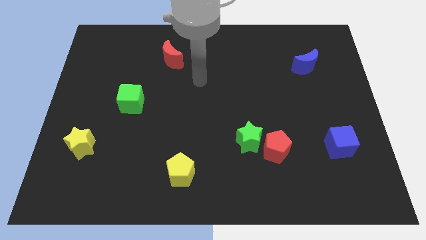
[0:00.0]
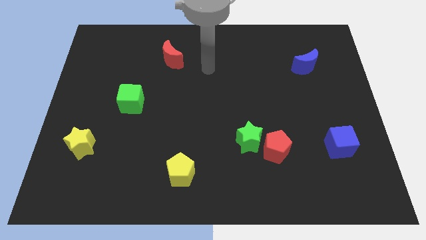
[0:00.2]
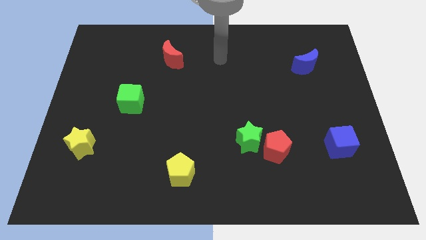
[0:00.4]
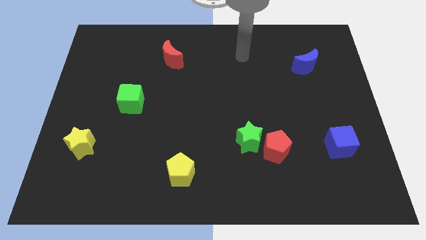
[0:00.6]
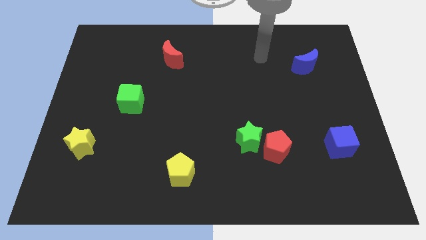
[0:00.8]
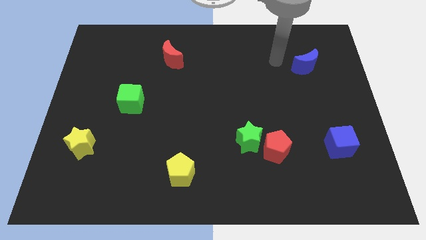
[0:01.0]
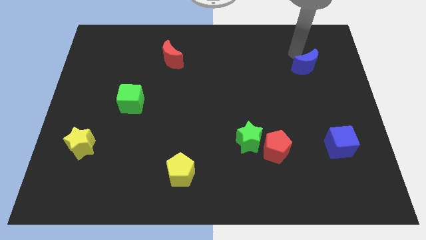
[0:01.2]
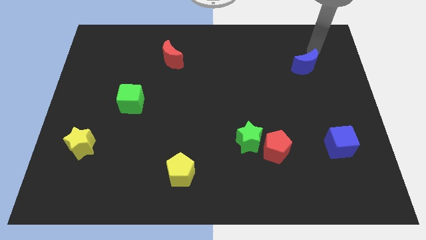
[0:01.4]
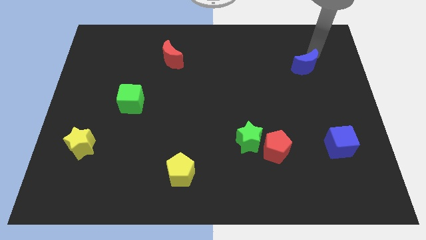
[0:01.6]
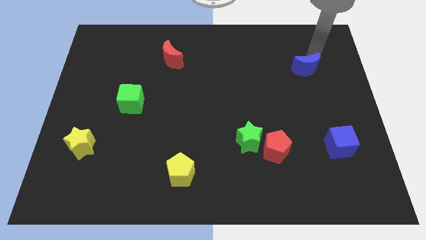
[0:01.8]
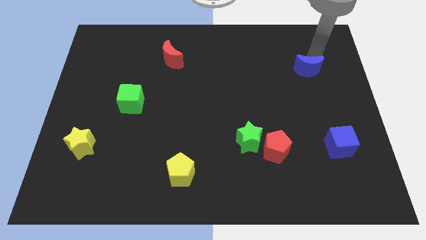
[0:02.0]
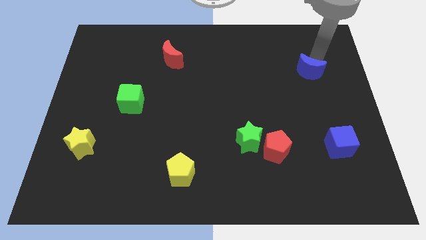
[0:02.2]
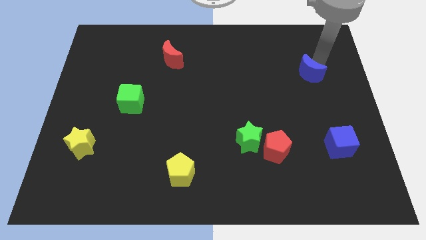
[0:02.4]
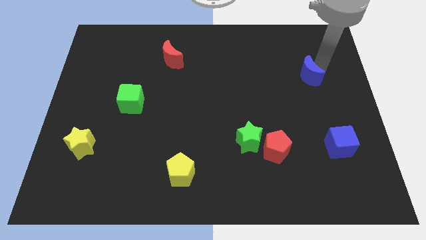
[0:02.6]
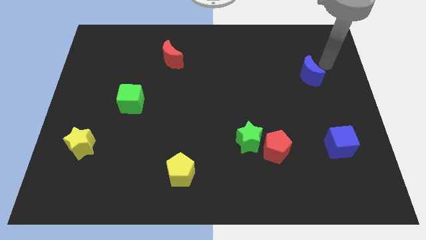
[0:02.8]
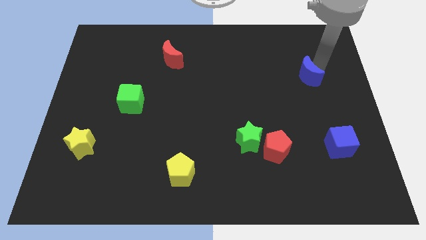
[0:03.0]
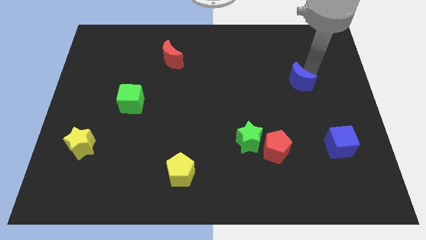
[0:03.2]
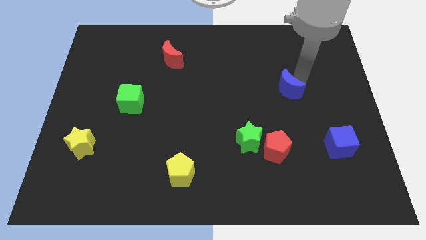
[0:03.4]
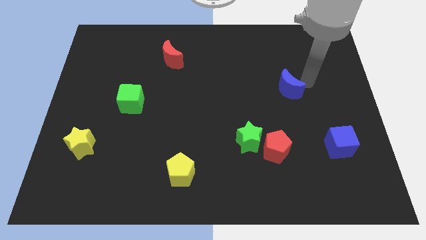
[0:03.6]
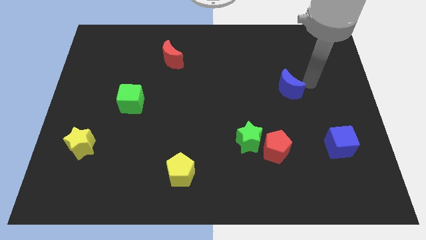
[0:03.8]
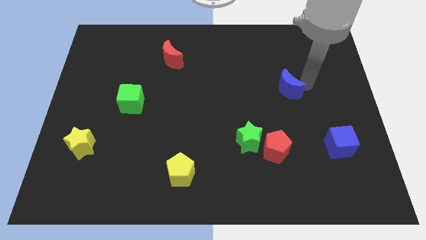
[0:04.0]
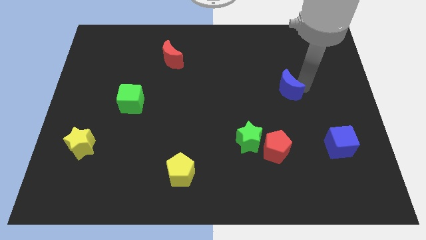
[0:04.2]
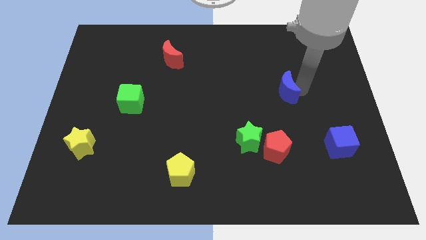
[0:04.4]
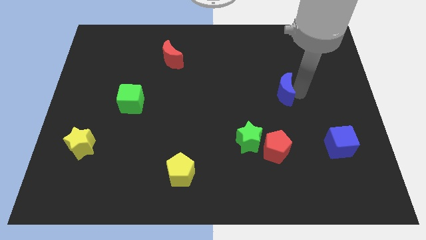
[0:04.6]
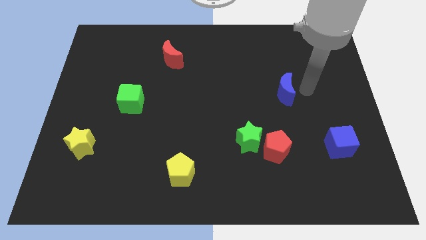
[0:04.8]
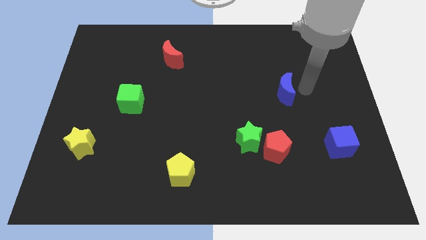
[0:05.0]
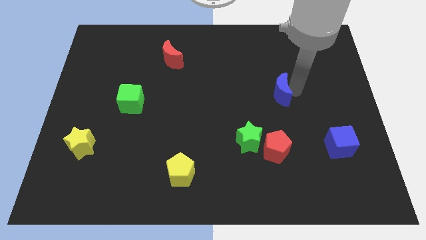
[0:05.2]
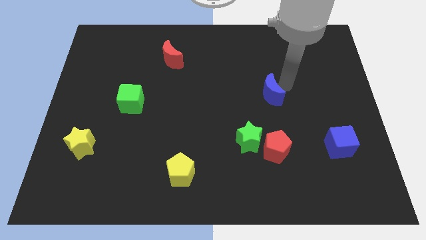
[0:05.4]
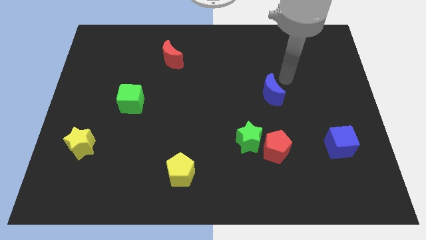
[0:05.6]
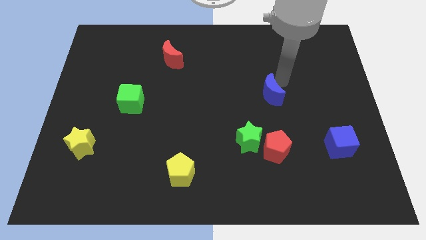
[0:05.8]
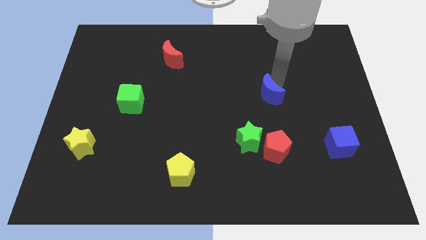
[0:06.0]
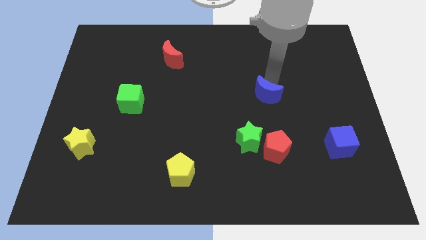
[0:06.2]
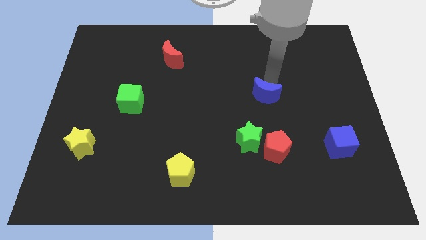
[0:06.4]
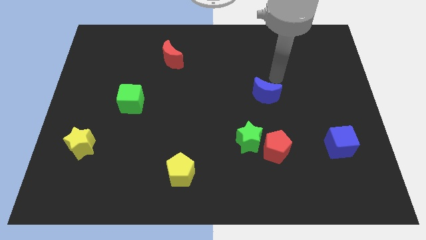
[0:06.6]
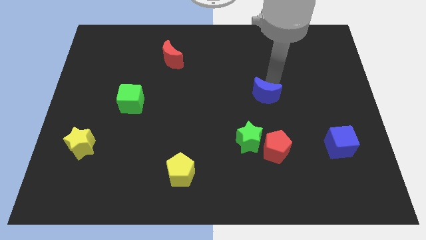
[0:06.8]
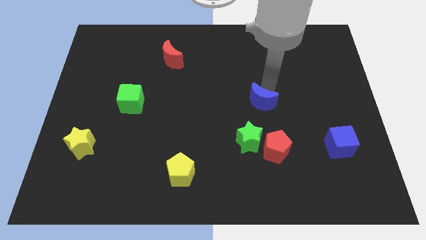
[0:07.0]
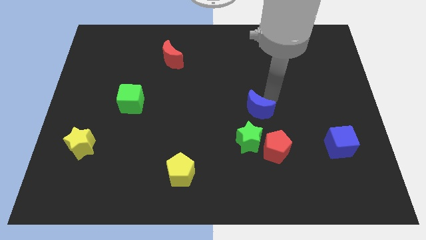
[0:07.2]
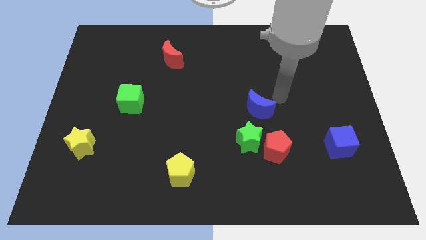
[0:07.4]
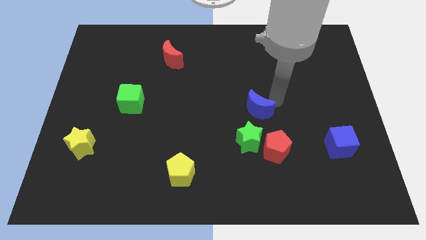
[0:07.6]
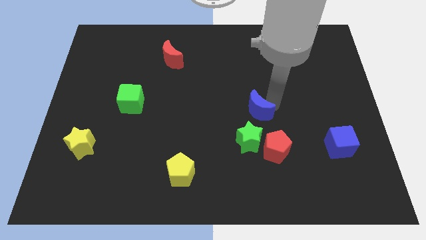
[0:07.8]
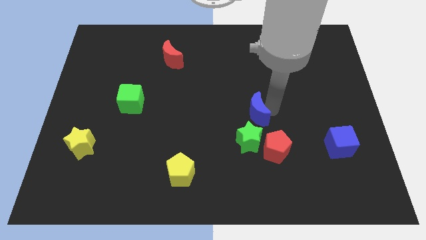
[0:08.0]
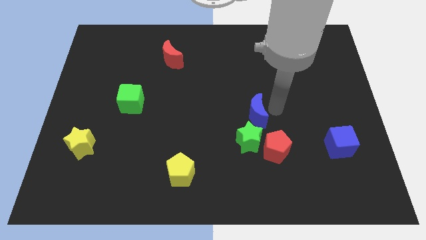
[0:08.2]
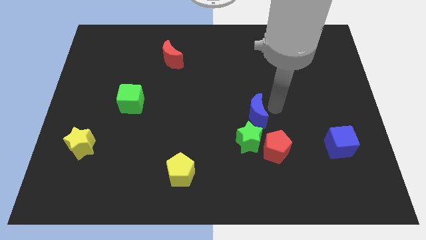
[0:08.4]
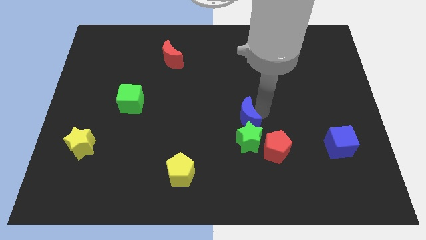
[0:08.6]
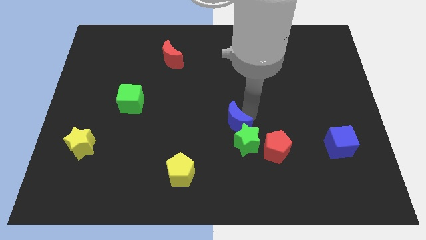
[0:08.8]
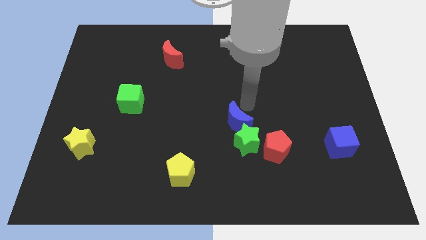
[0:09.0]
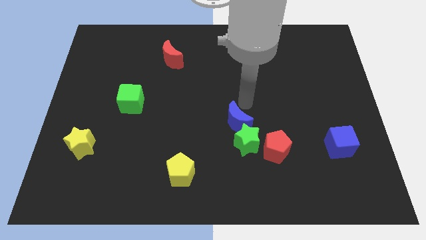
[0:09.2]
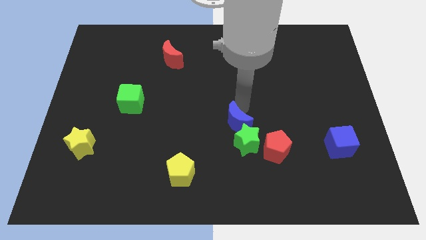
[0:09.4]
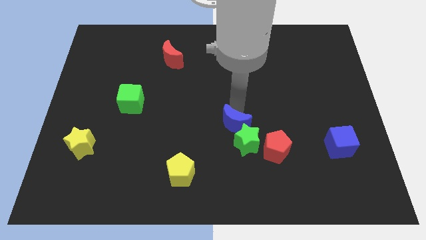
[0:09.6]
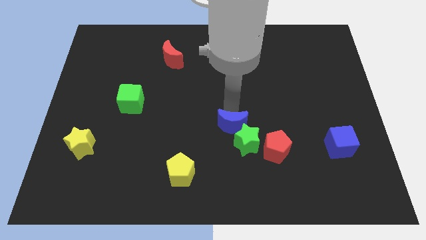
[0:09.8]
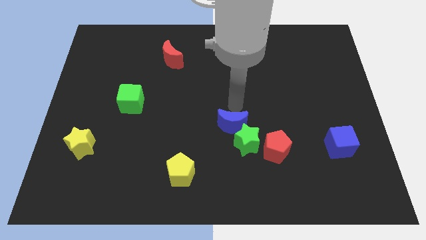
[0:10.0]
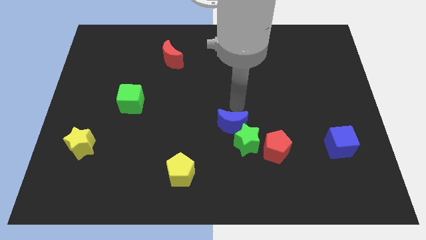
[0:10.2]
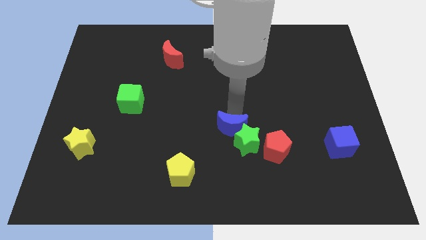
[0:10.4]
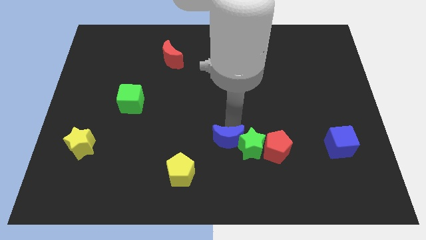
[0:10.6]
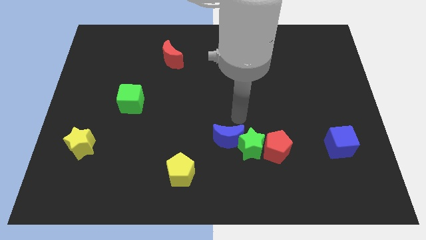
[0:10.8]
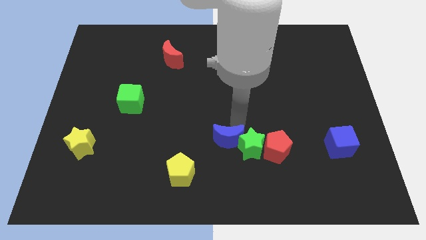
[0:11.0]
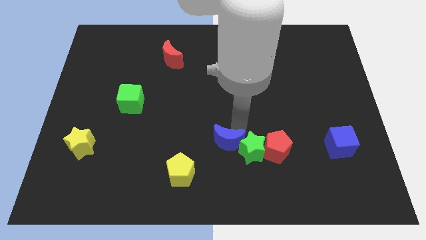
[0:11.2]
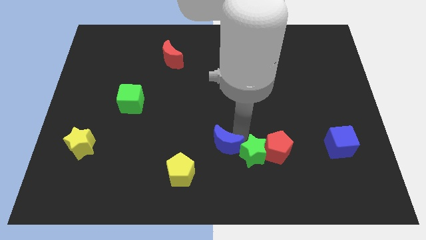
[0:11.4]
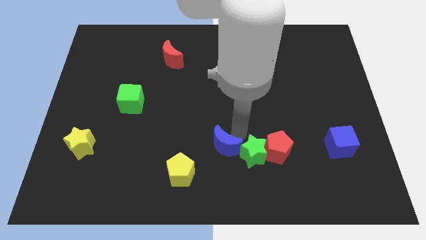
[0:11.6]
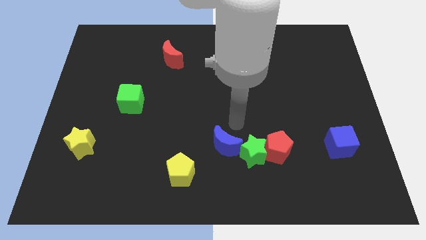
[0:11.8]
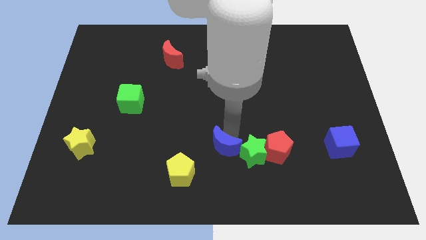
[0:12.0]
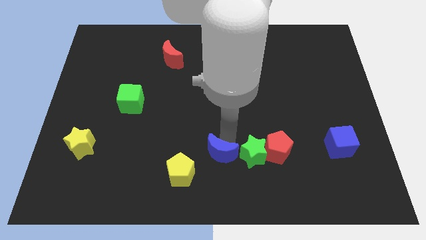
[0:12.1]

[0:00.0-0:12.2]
push the blue moon to the bottom side
